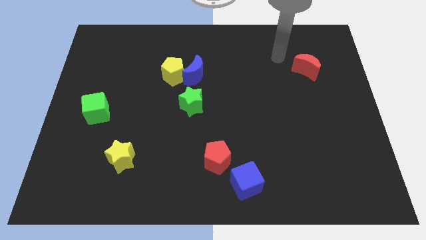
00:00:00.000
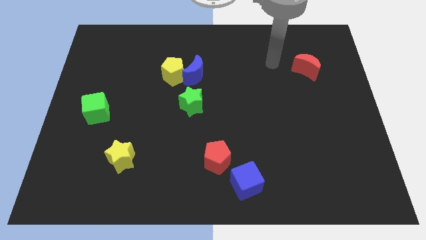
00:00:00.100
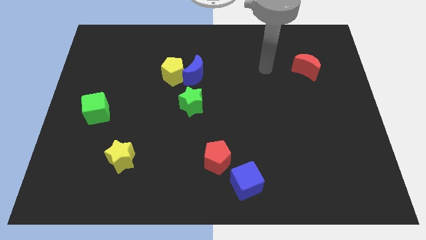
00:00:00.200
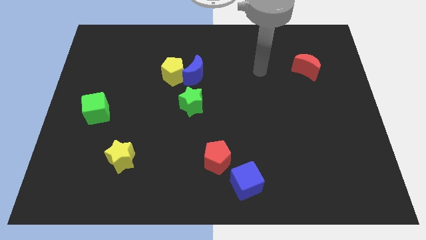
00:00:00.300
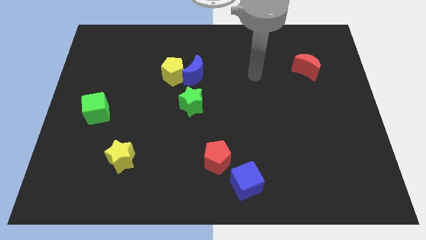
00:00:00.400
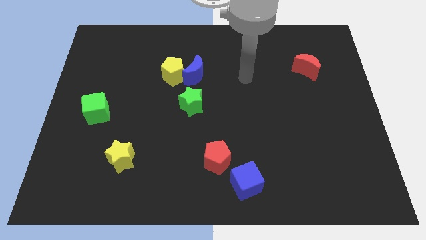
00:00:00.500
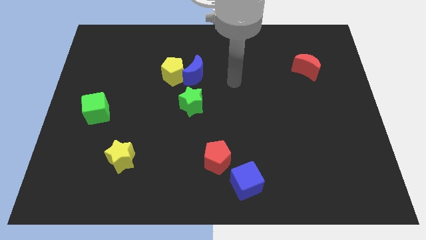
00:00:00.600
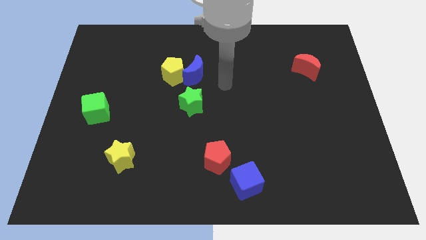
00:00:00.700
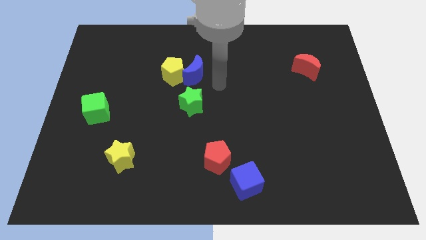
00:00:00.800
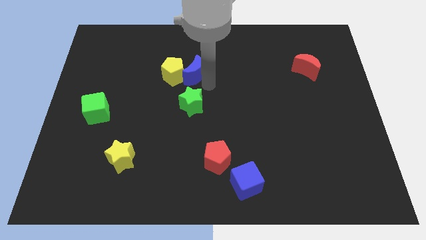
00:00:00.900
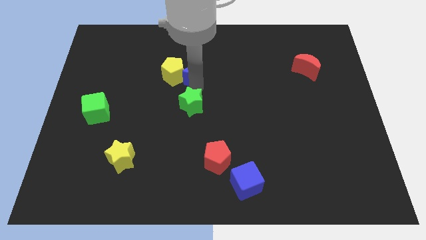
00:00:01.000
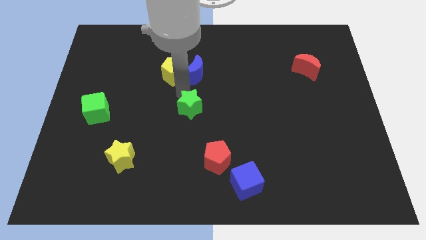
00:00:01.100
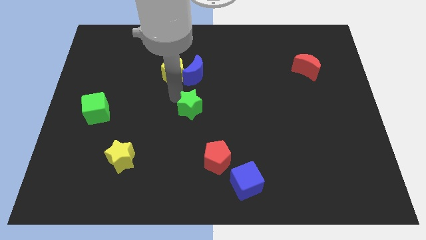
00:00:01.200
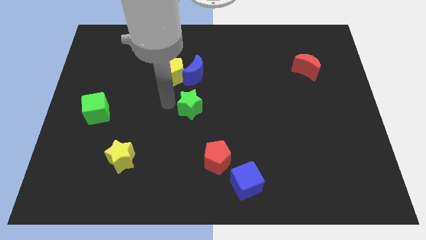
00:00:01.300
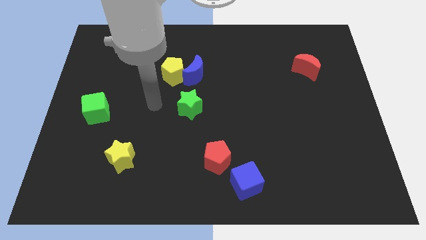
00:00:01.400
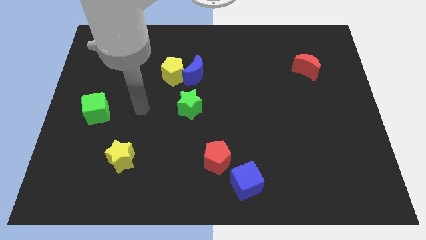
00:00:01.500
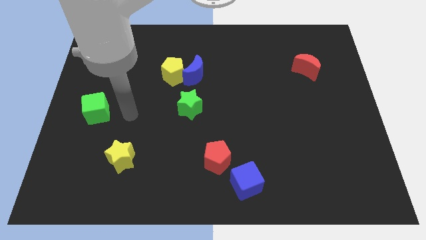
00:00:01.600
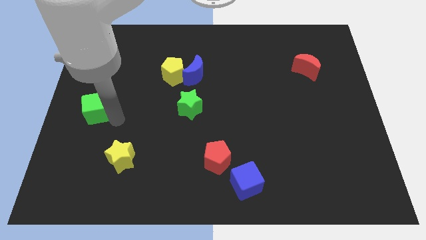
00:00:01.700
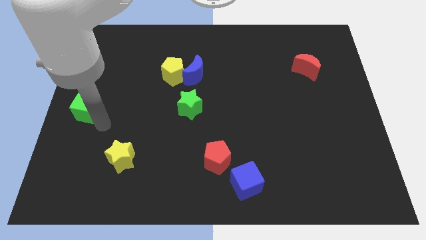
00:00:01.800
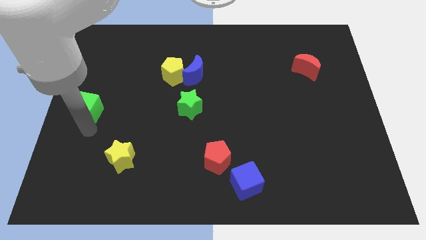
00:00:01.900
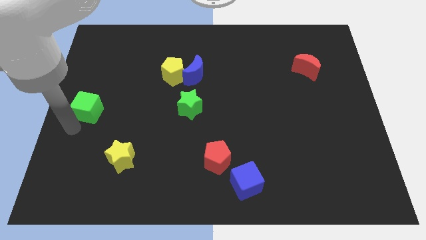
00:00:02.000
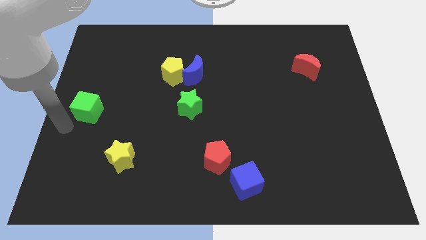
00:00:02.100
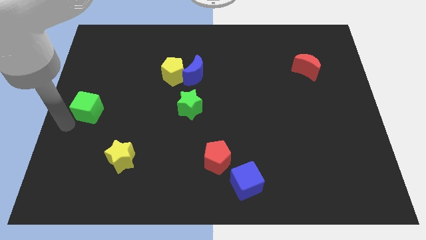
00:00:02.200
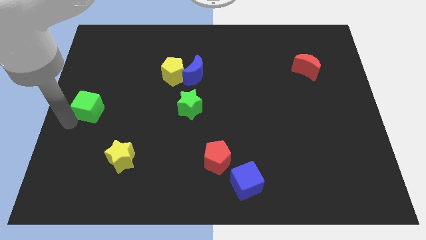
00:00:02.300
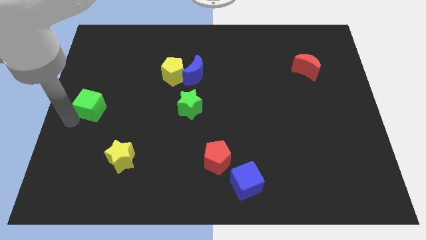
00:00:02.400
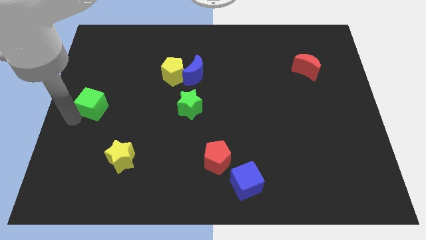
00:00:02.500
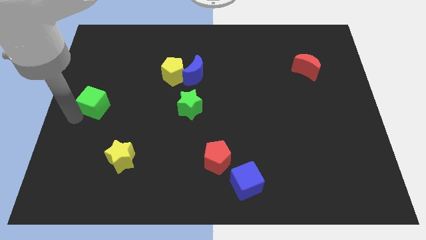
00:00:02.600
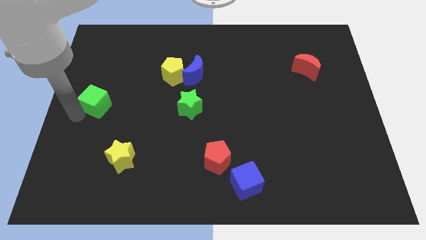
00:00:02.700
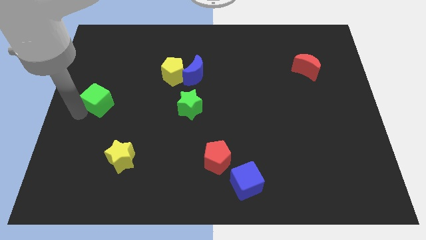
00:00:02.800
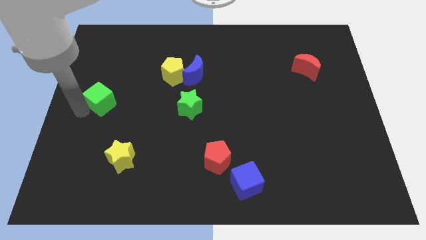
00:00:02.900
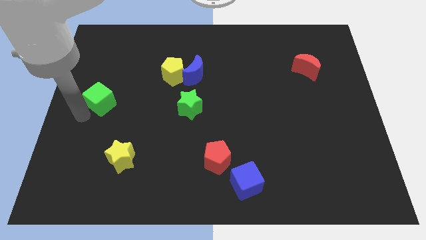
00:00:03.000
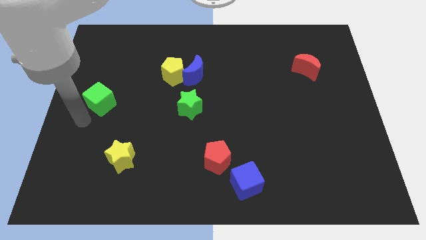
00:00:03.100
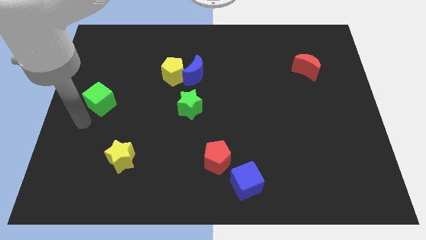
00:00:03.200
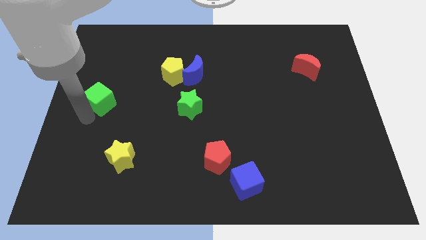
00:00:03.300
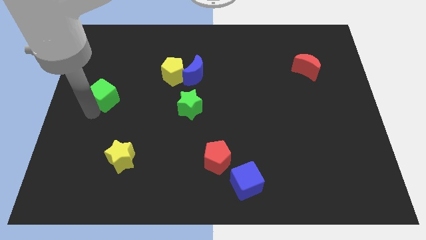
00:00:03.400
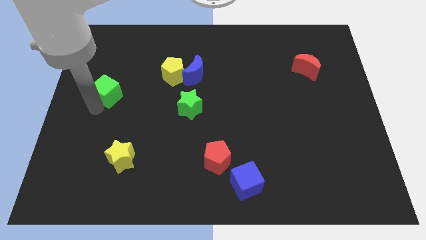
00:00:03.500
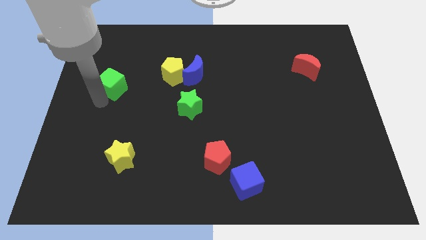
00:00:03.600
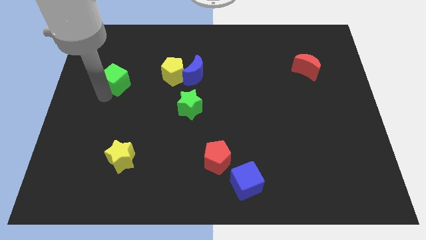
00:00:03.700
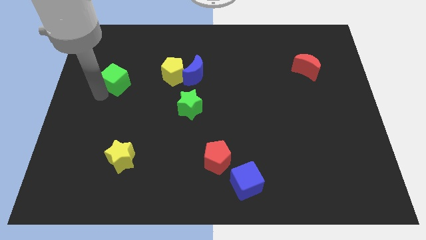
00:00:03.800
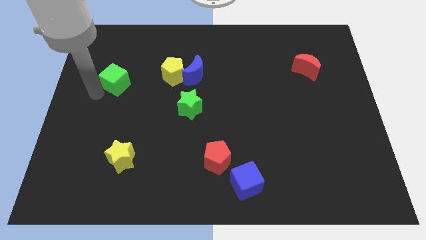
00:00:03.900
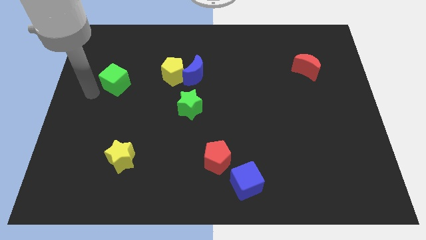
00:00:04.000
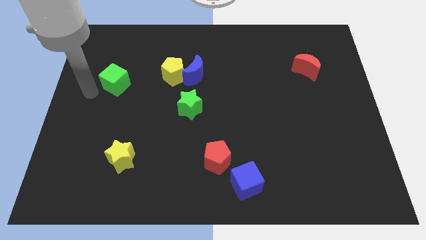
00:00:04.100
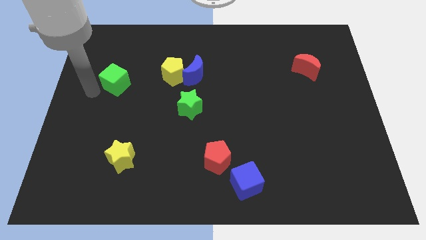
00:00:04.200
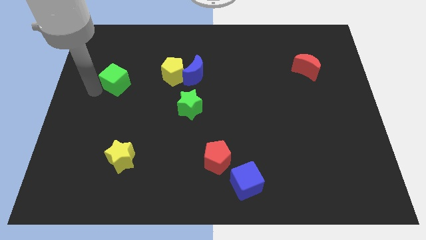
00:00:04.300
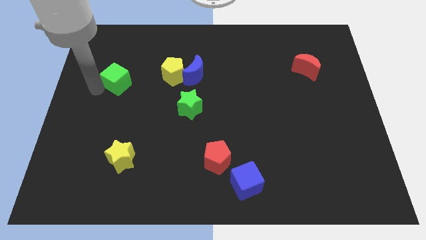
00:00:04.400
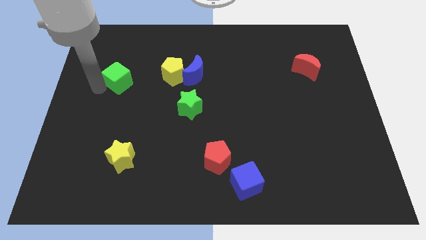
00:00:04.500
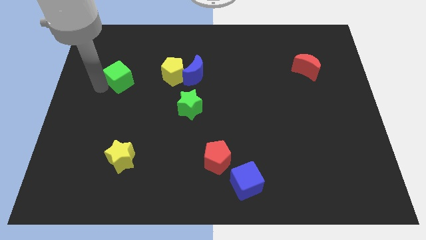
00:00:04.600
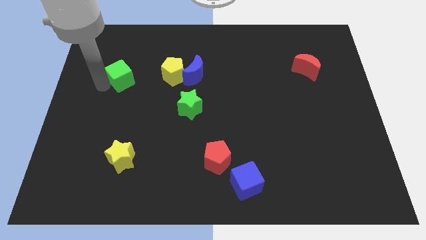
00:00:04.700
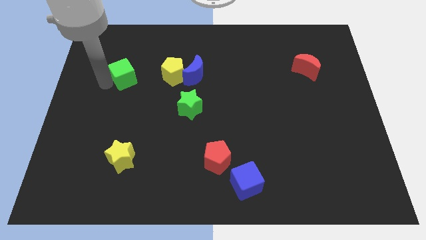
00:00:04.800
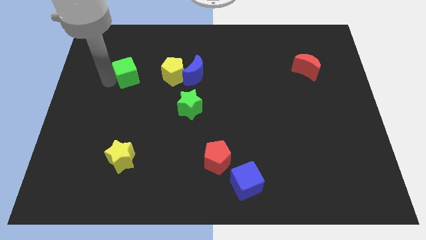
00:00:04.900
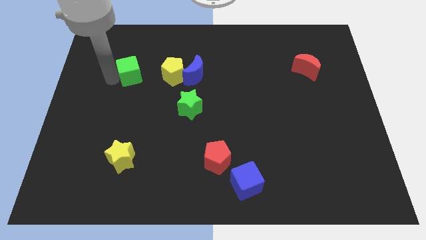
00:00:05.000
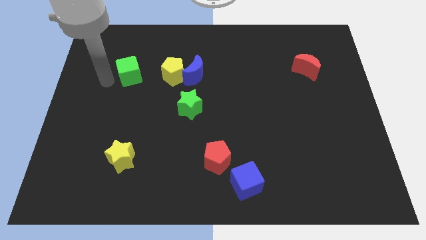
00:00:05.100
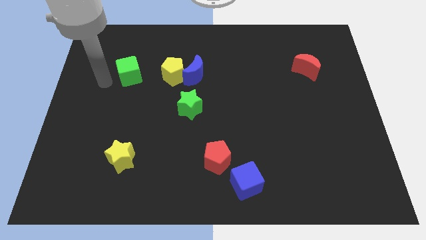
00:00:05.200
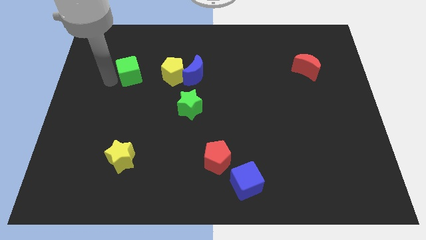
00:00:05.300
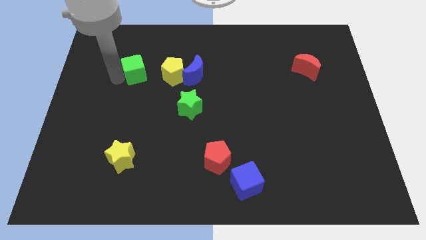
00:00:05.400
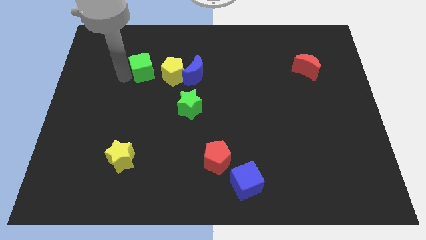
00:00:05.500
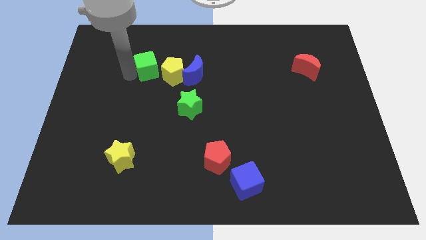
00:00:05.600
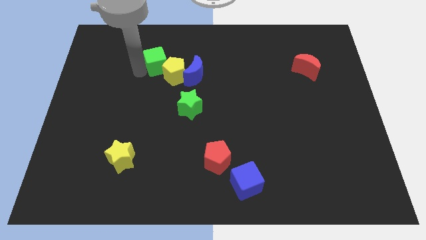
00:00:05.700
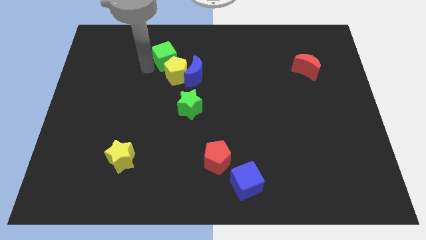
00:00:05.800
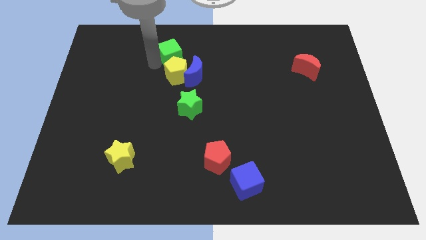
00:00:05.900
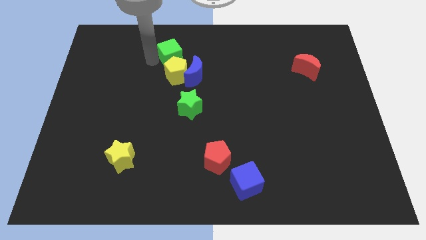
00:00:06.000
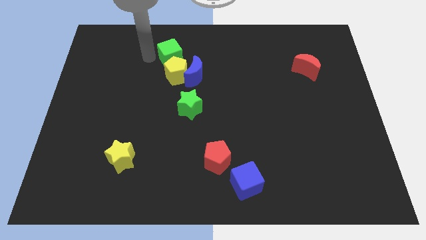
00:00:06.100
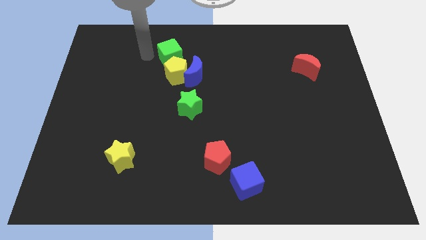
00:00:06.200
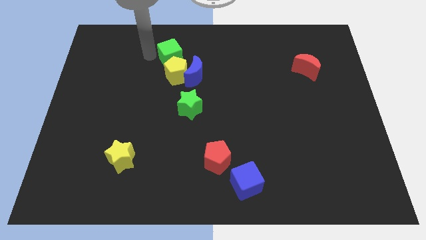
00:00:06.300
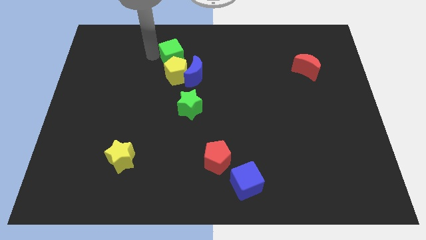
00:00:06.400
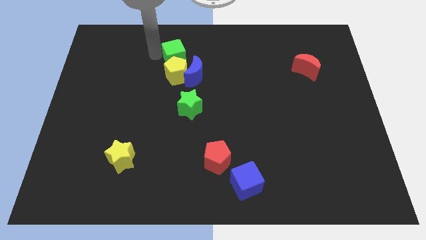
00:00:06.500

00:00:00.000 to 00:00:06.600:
put the green cube diagonally up and to the right of the yellow pentagon

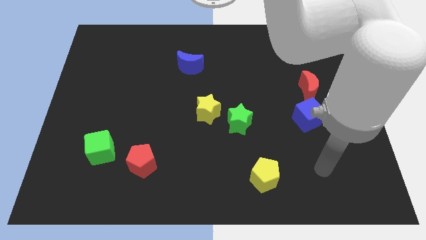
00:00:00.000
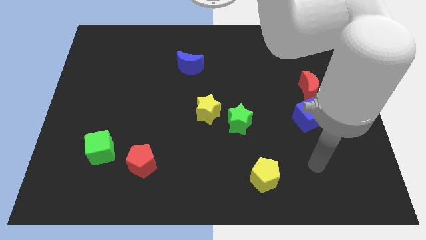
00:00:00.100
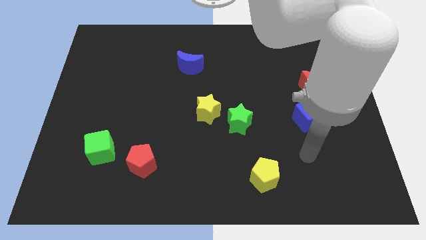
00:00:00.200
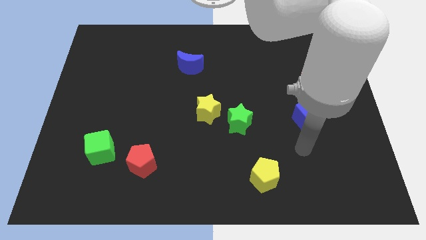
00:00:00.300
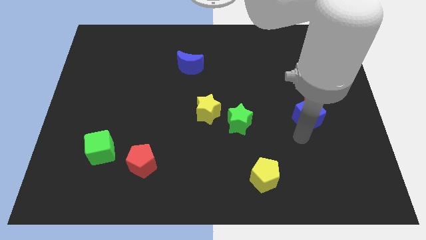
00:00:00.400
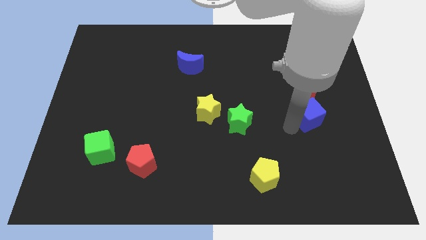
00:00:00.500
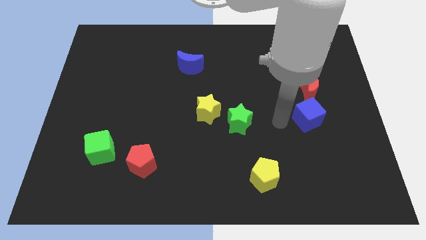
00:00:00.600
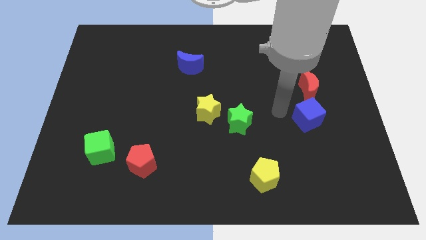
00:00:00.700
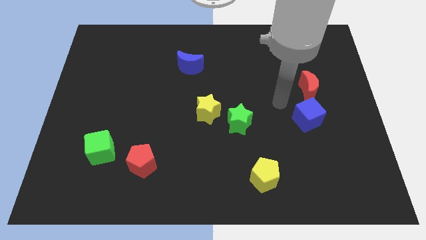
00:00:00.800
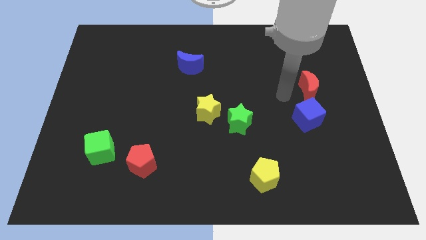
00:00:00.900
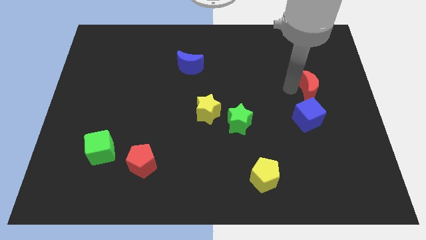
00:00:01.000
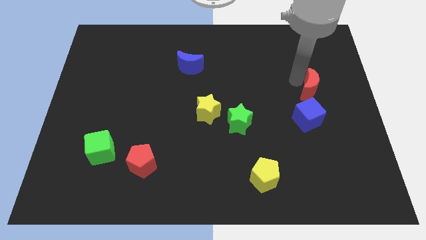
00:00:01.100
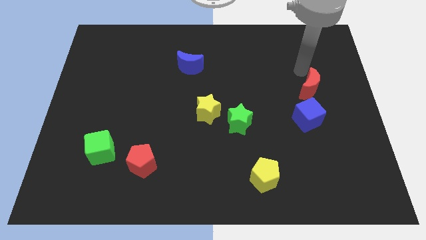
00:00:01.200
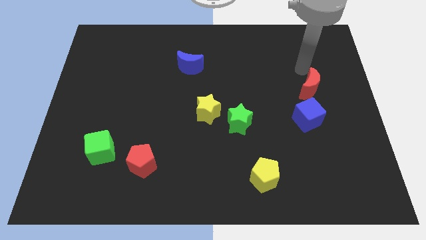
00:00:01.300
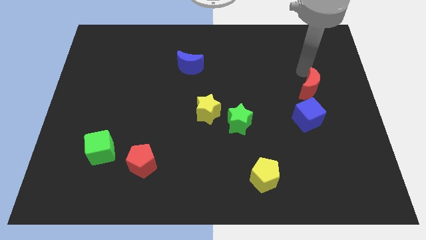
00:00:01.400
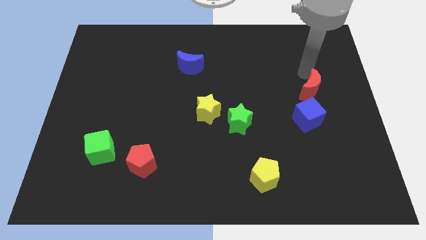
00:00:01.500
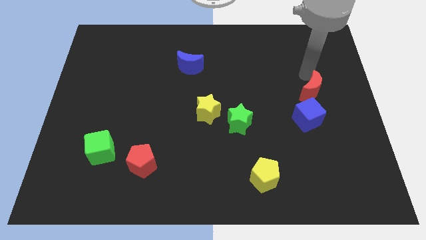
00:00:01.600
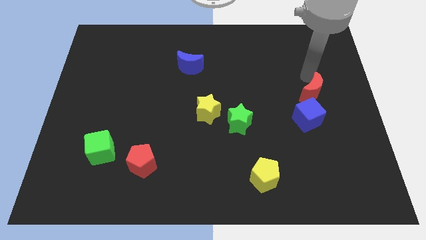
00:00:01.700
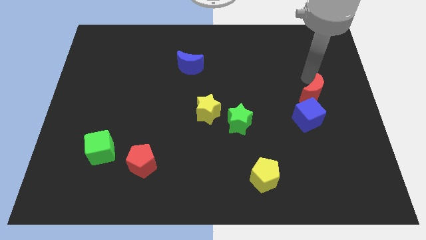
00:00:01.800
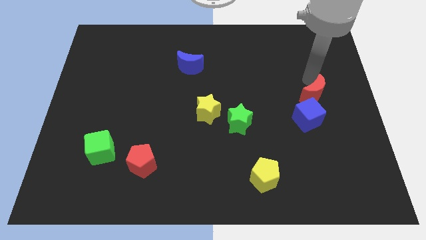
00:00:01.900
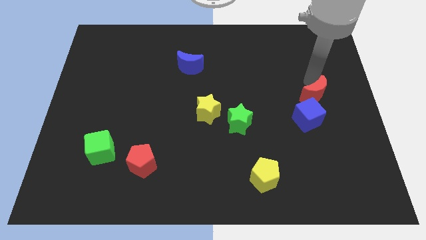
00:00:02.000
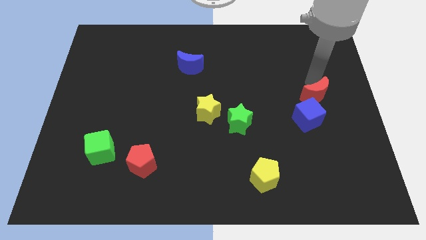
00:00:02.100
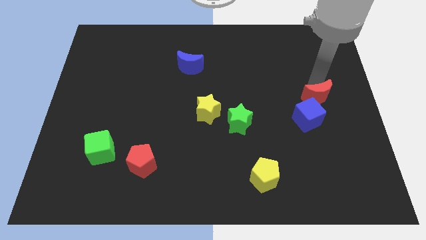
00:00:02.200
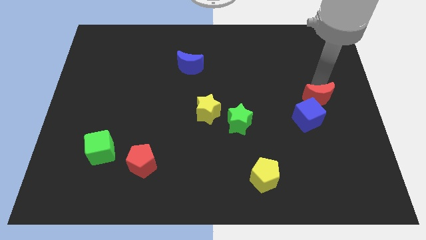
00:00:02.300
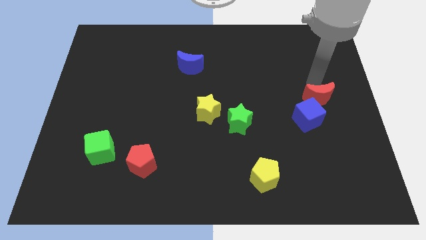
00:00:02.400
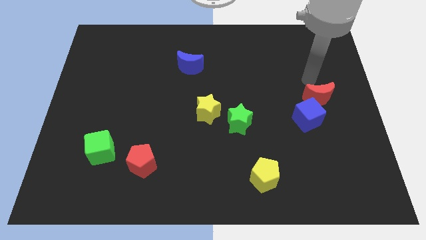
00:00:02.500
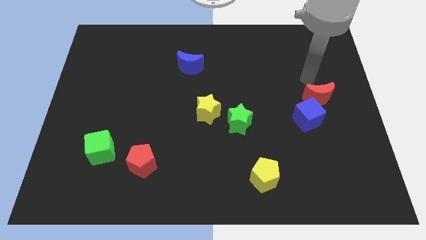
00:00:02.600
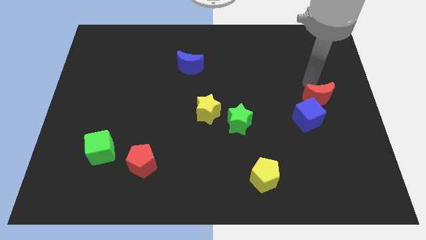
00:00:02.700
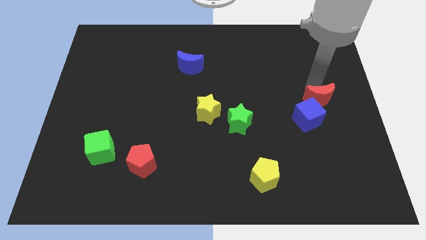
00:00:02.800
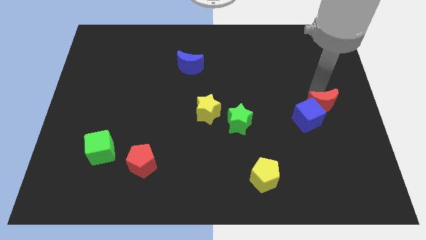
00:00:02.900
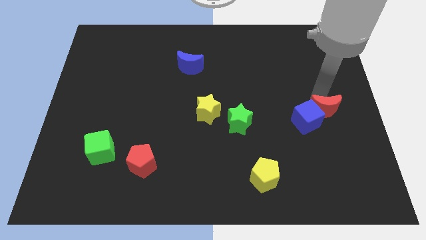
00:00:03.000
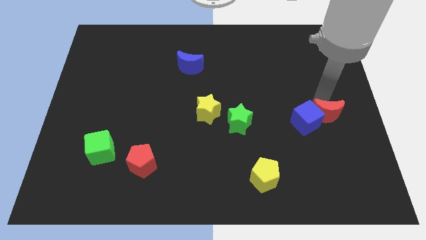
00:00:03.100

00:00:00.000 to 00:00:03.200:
put the red moon diagonally down and to the right of the blue cube
